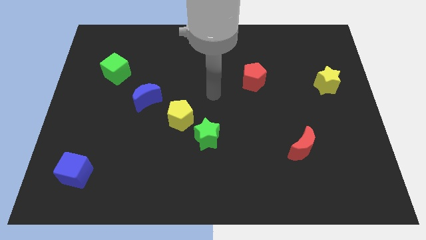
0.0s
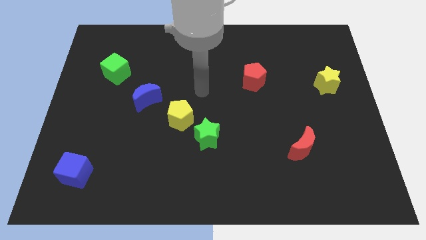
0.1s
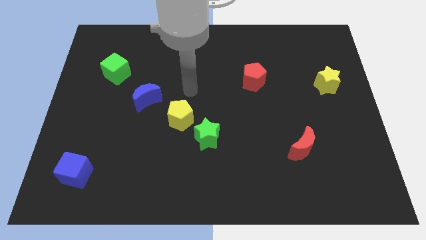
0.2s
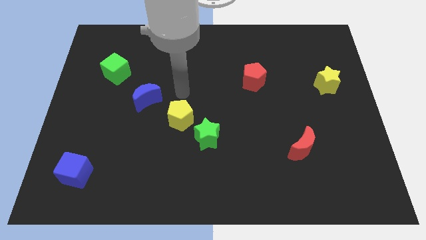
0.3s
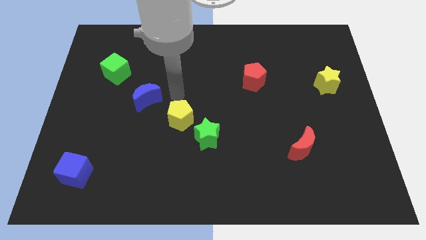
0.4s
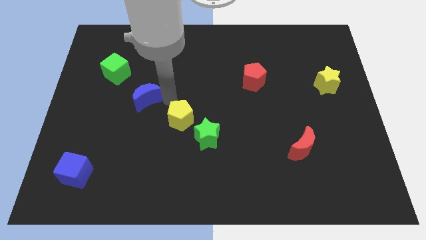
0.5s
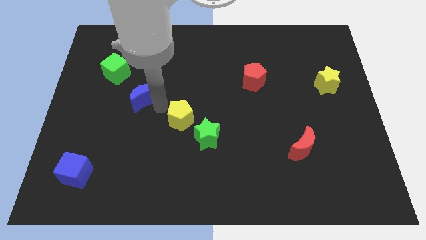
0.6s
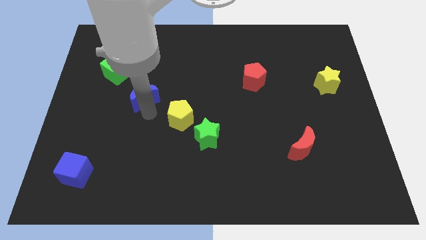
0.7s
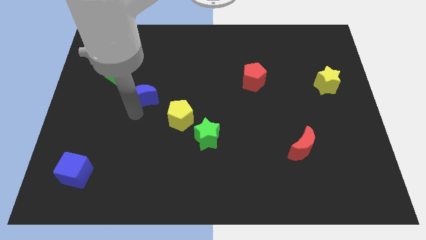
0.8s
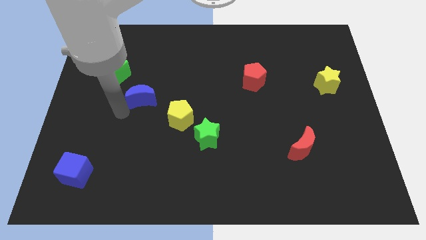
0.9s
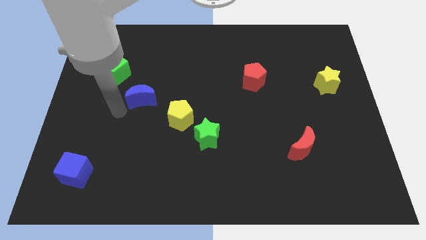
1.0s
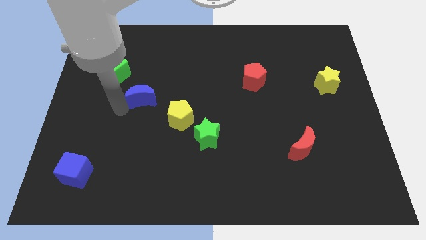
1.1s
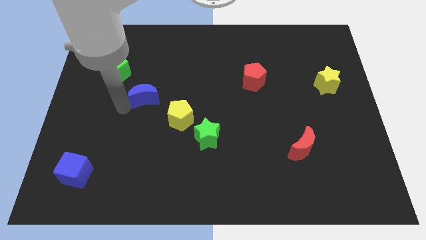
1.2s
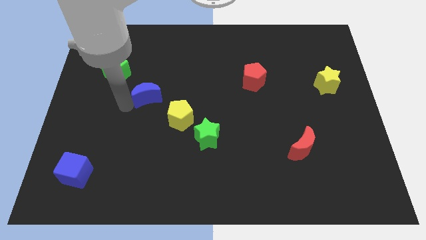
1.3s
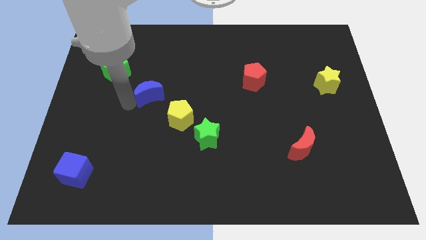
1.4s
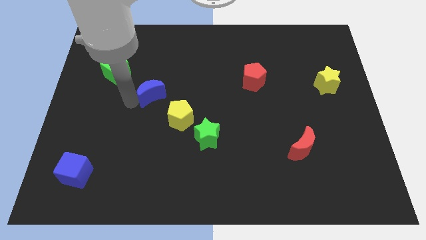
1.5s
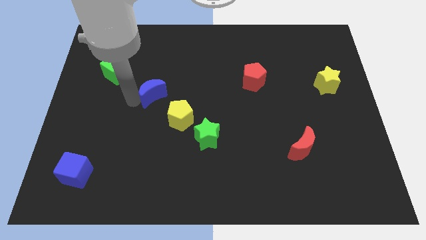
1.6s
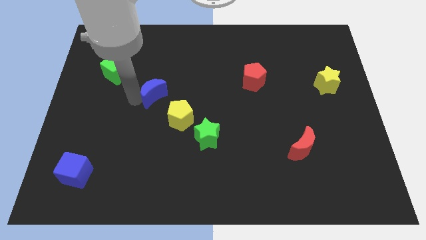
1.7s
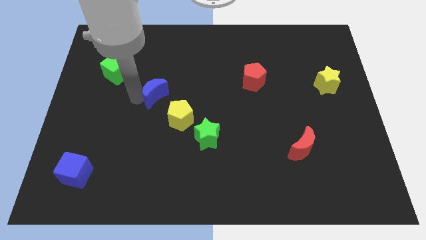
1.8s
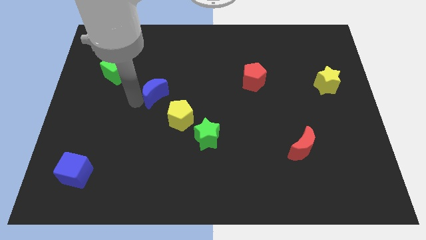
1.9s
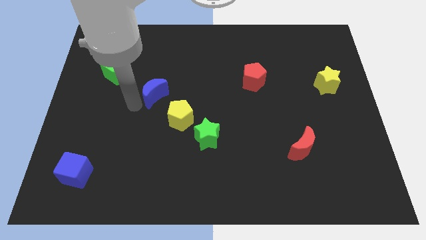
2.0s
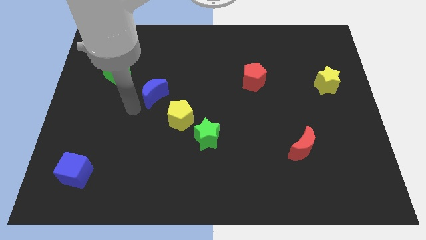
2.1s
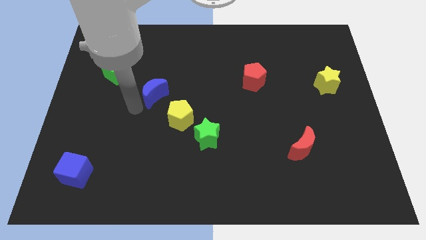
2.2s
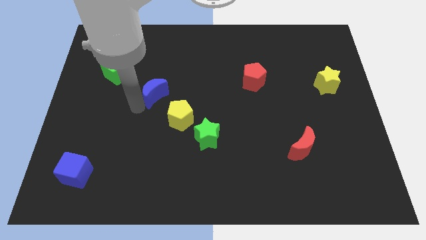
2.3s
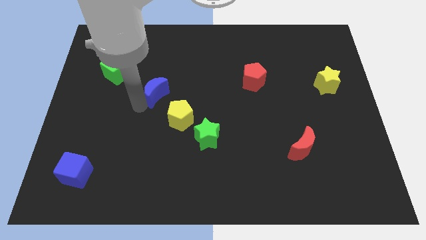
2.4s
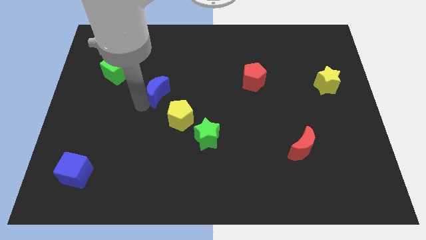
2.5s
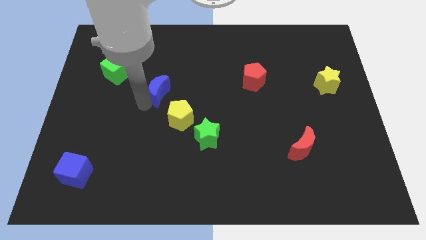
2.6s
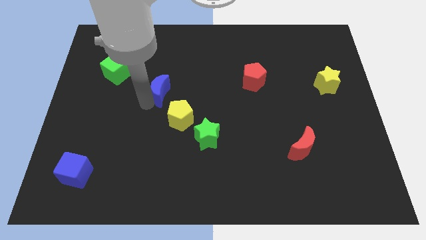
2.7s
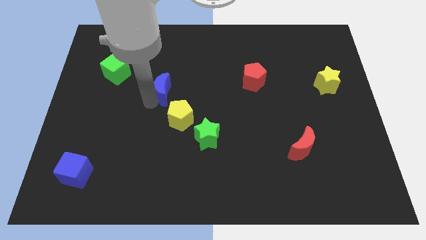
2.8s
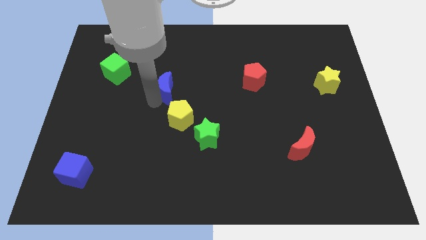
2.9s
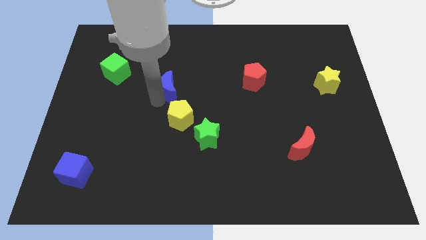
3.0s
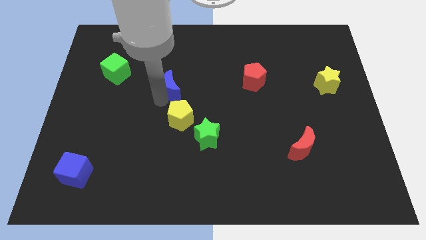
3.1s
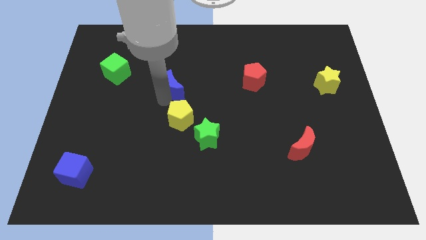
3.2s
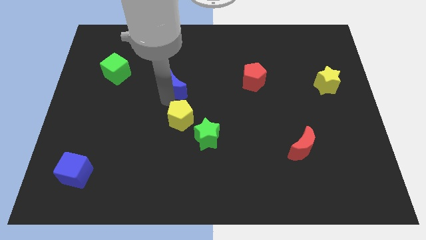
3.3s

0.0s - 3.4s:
slightly move the blue moon up and right diagonally

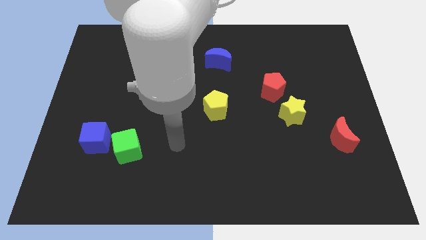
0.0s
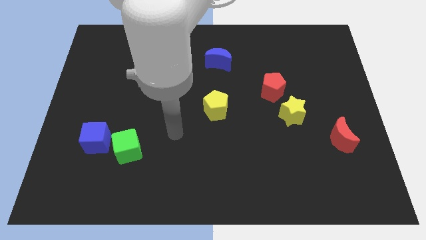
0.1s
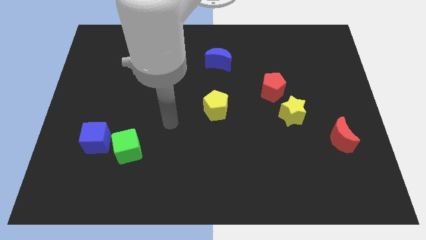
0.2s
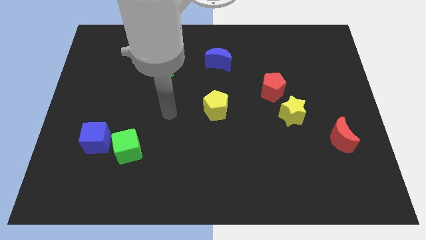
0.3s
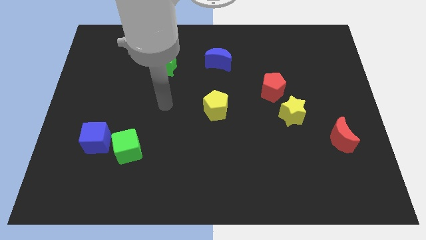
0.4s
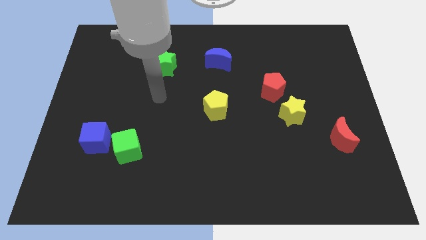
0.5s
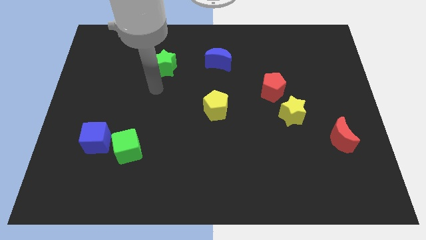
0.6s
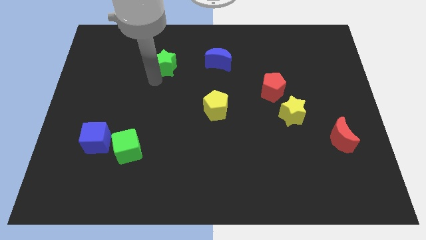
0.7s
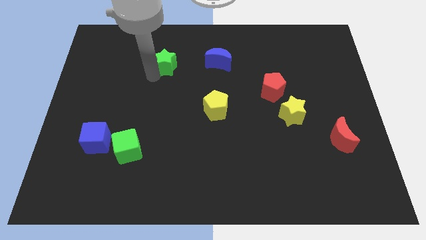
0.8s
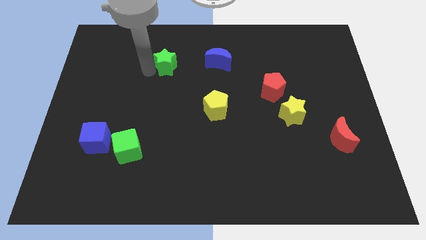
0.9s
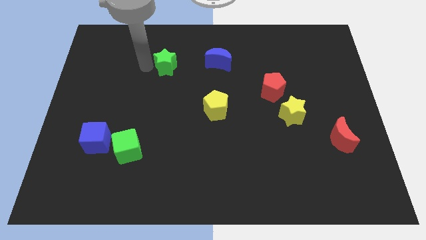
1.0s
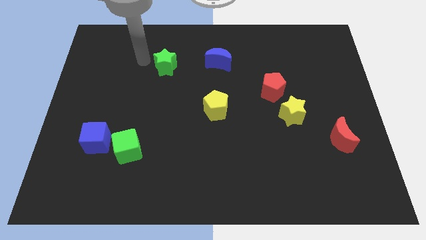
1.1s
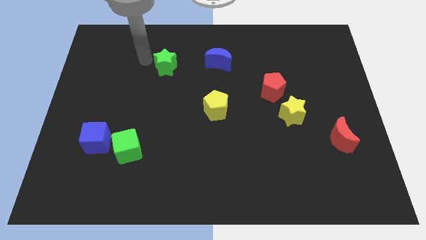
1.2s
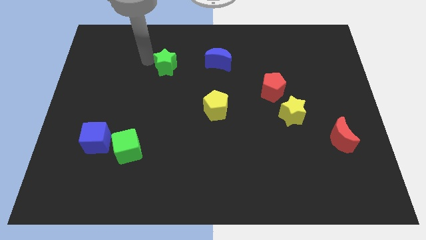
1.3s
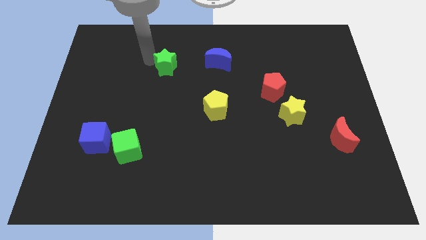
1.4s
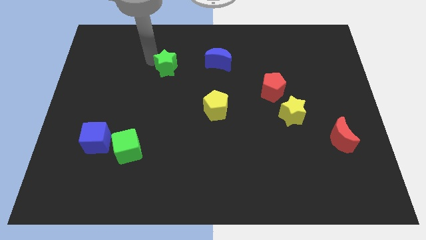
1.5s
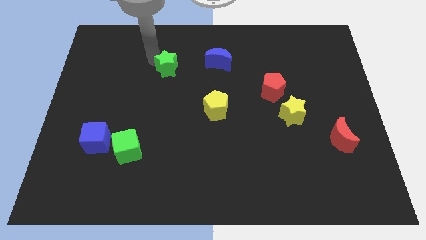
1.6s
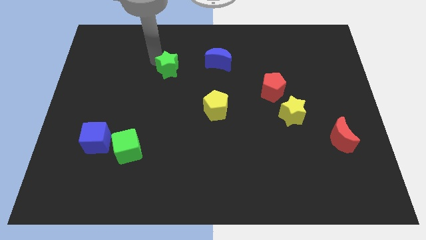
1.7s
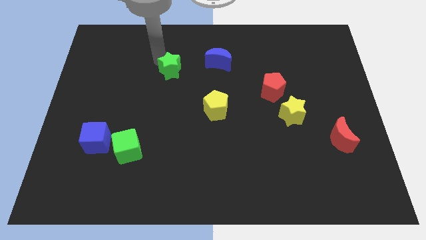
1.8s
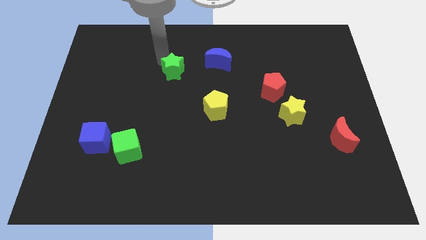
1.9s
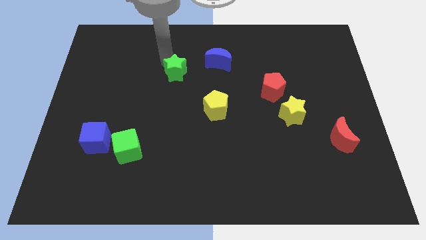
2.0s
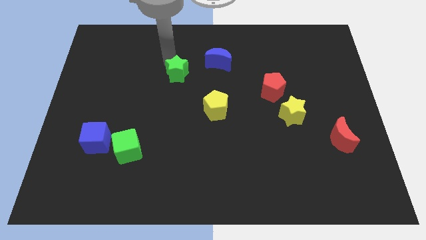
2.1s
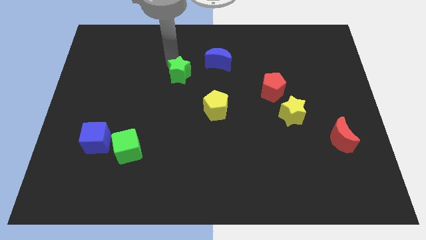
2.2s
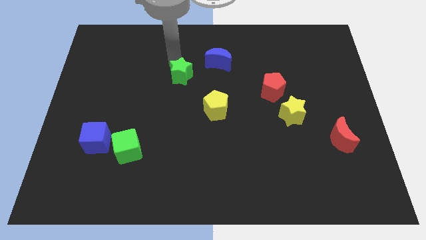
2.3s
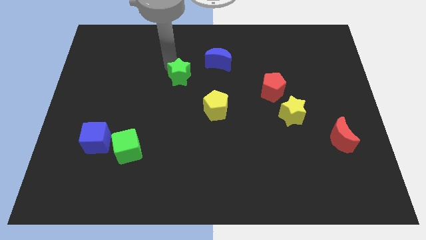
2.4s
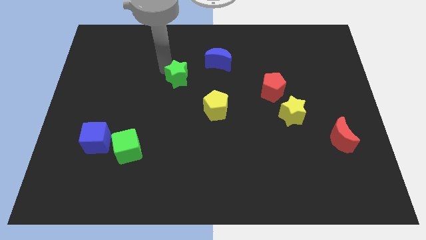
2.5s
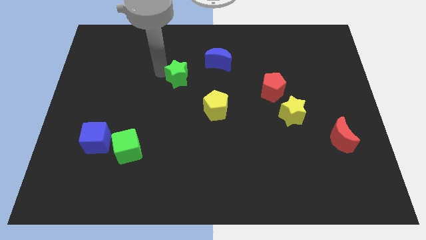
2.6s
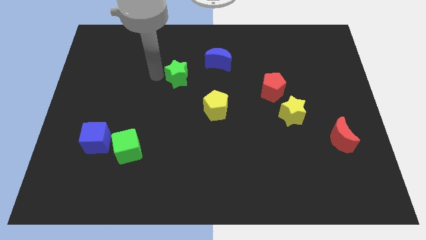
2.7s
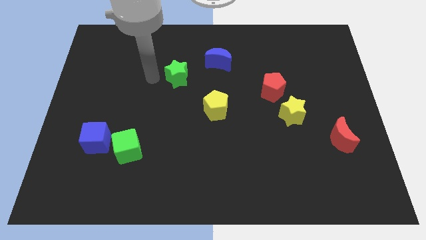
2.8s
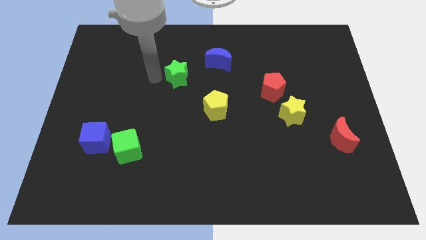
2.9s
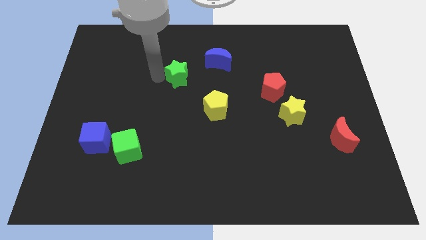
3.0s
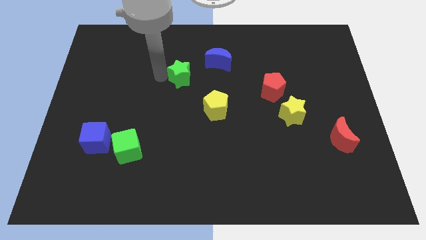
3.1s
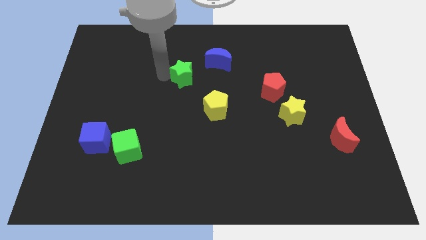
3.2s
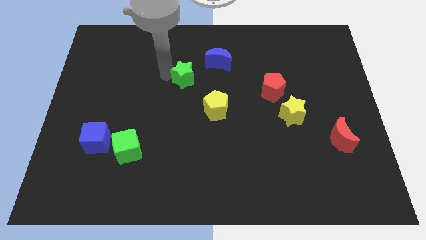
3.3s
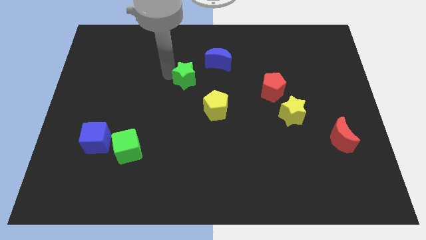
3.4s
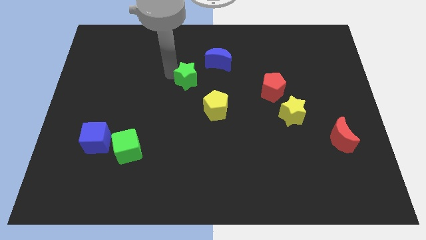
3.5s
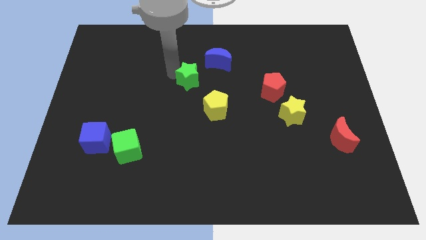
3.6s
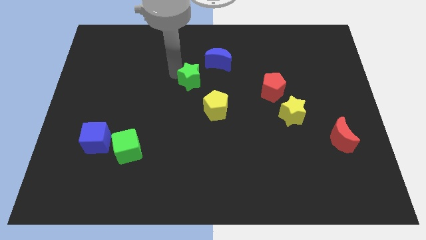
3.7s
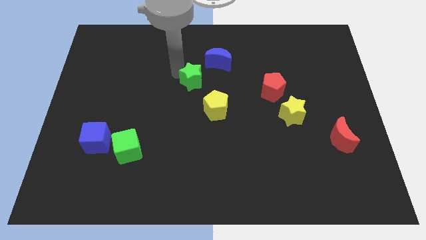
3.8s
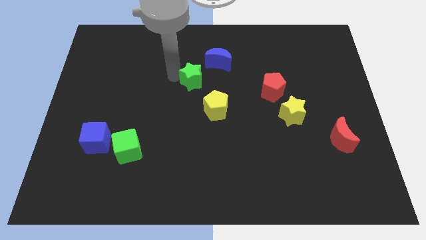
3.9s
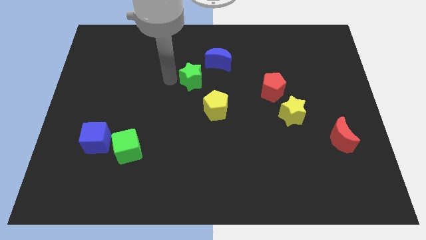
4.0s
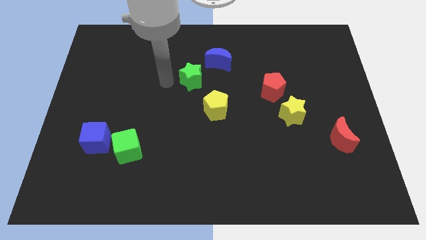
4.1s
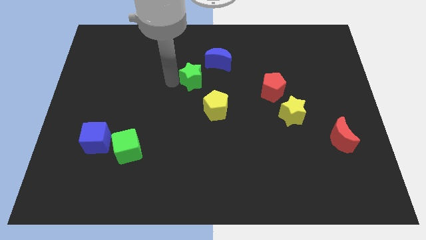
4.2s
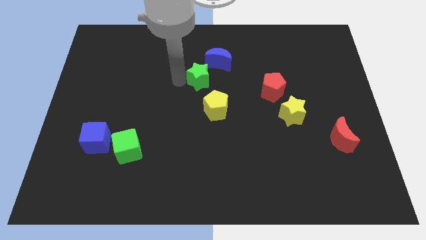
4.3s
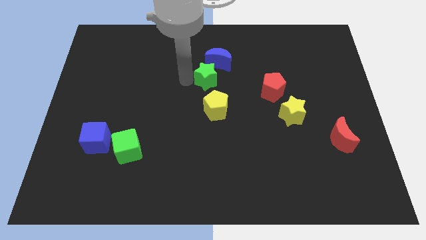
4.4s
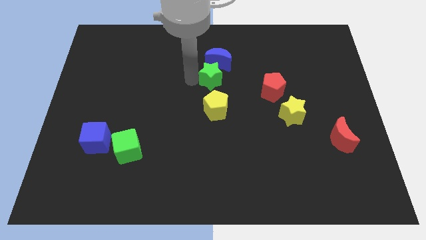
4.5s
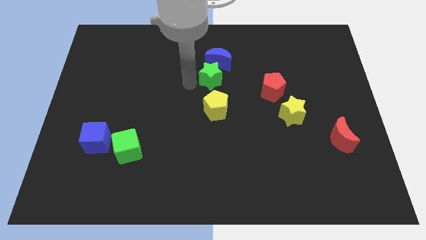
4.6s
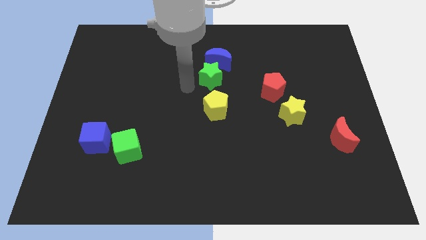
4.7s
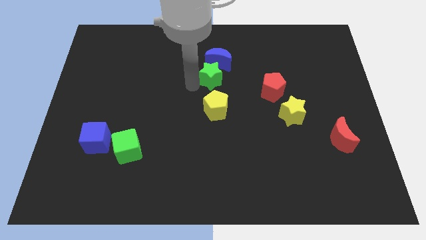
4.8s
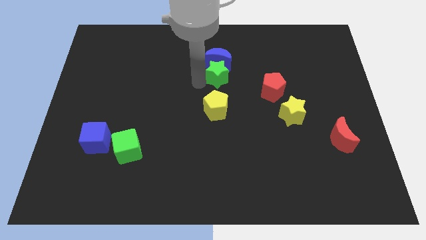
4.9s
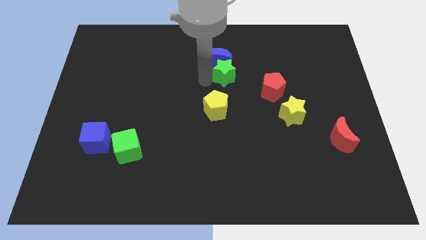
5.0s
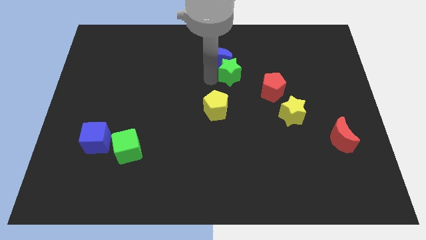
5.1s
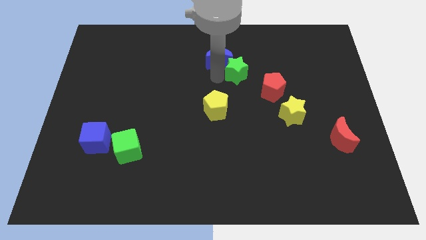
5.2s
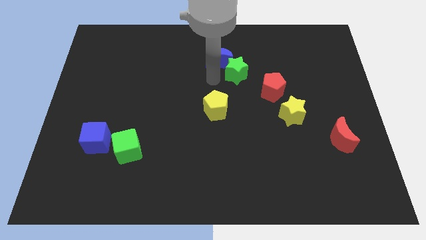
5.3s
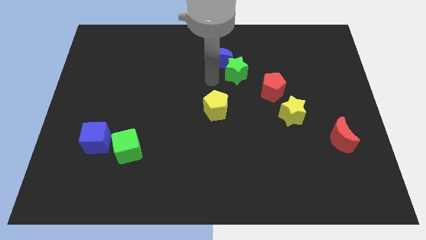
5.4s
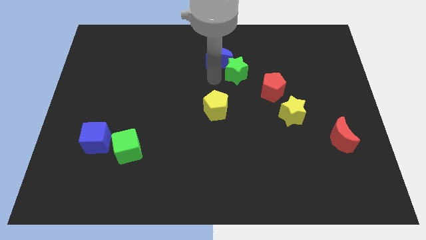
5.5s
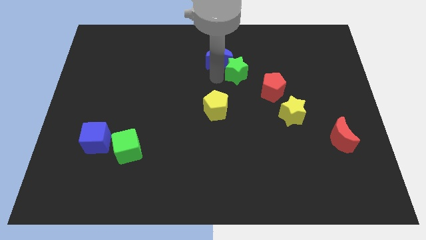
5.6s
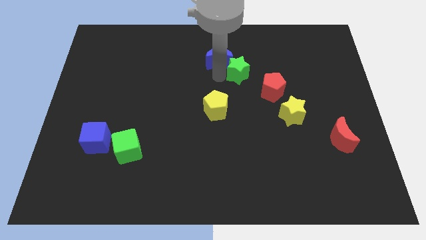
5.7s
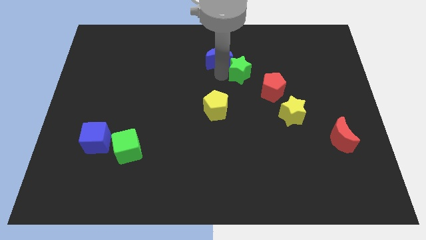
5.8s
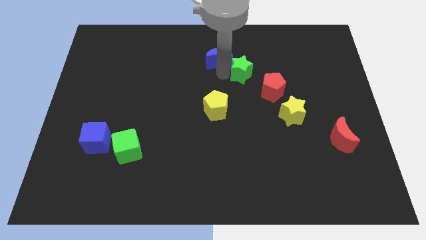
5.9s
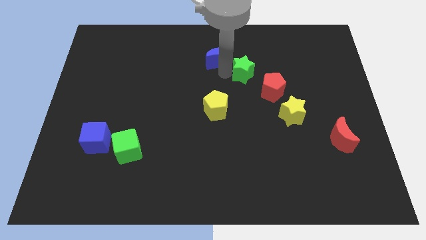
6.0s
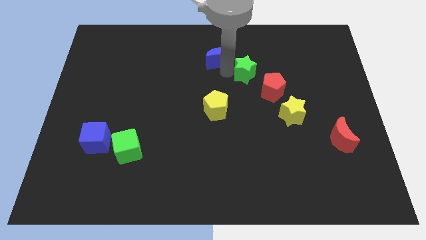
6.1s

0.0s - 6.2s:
move the green star to the right
